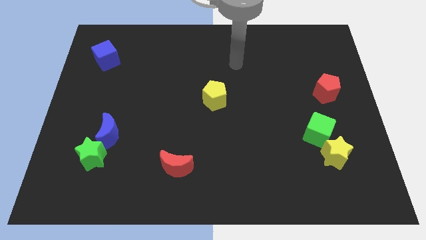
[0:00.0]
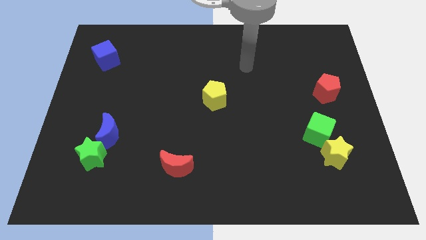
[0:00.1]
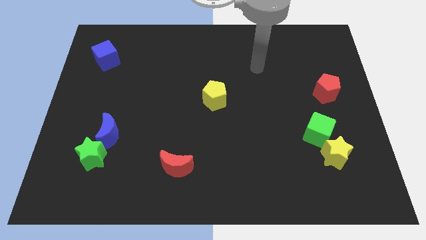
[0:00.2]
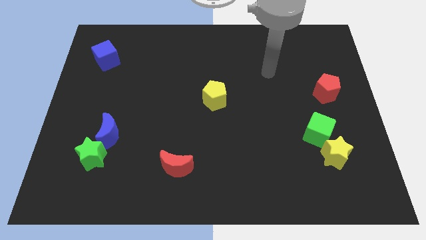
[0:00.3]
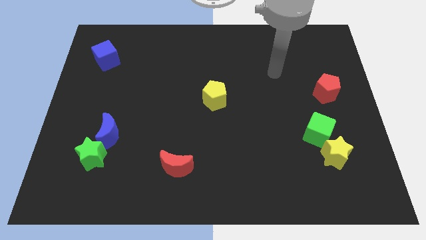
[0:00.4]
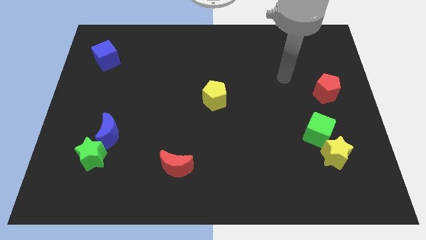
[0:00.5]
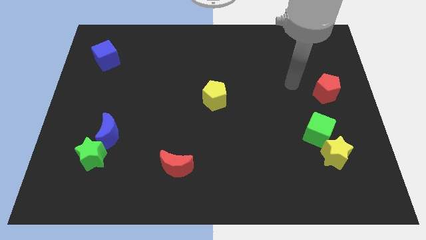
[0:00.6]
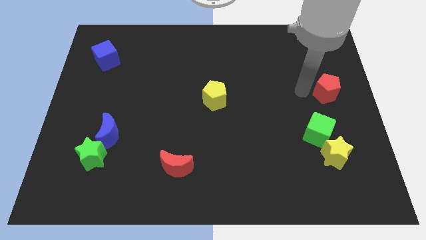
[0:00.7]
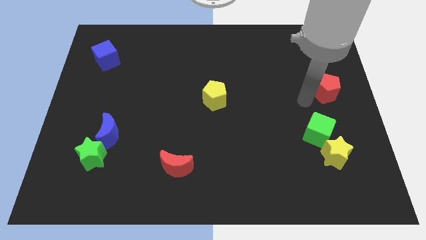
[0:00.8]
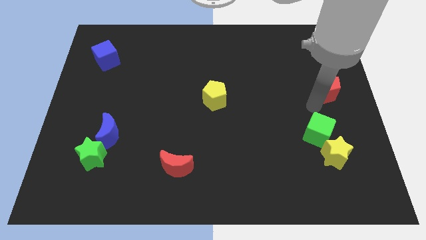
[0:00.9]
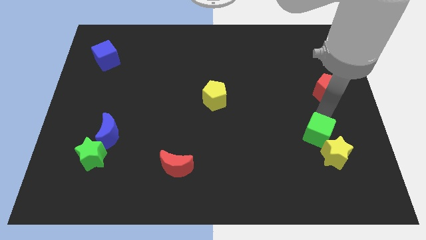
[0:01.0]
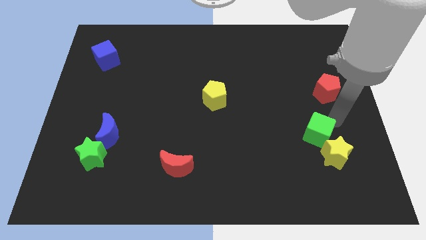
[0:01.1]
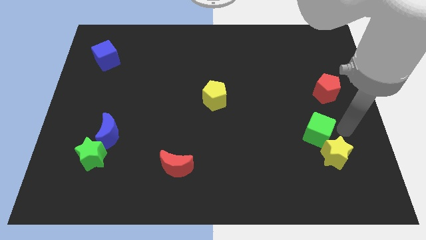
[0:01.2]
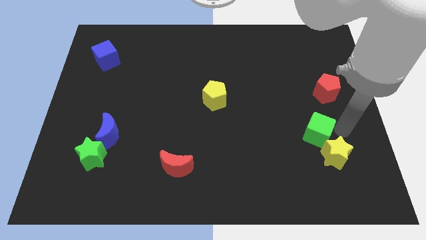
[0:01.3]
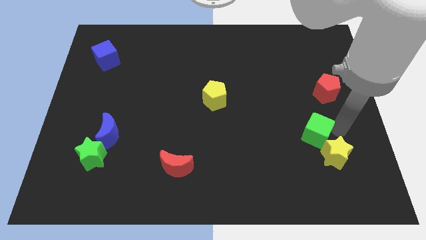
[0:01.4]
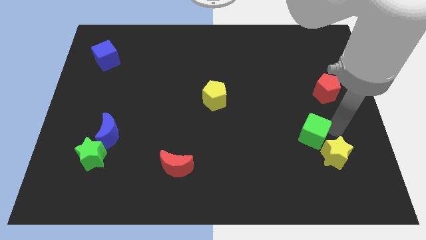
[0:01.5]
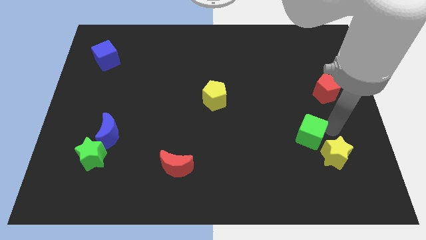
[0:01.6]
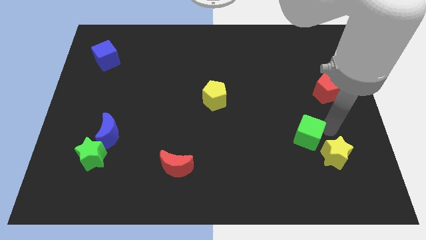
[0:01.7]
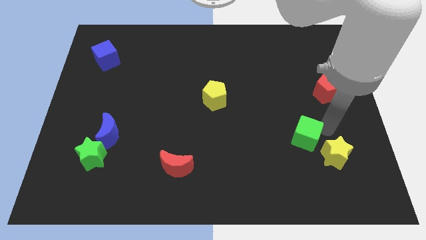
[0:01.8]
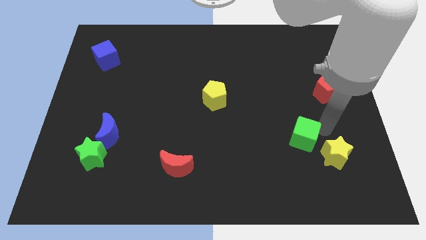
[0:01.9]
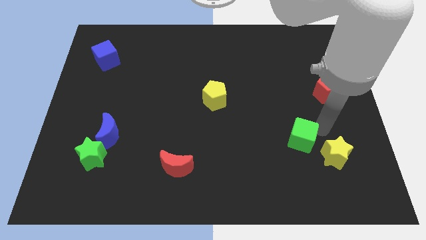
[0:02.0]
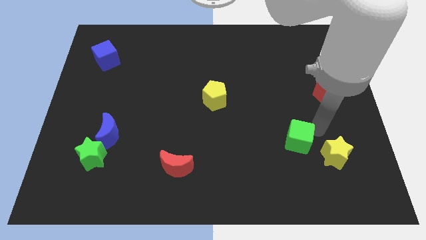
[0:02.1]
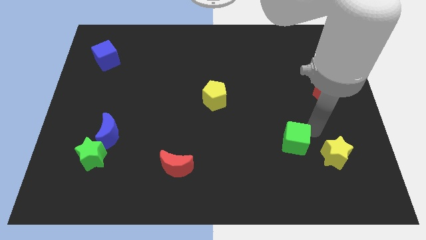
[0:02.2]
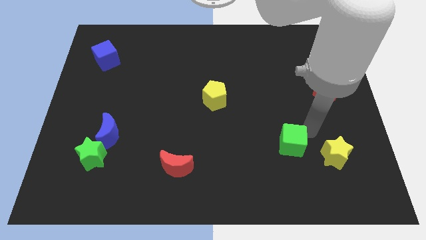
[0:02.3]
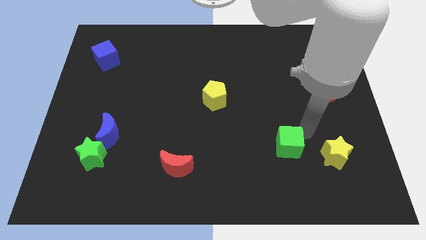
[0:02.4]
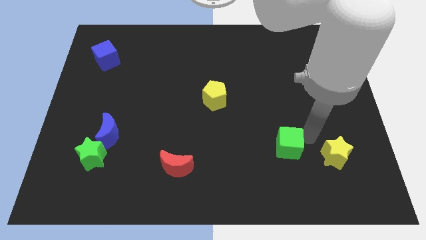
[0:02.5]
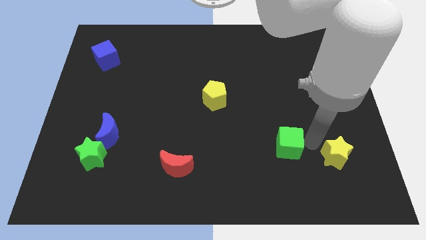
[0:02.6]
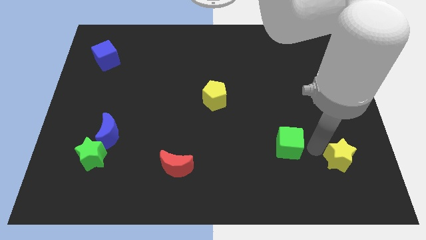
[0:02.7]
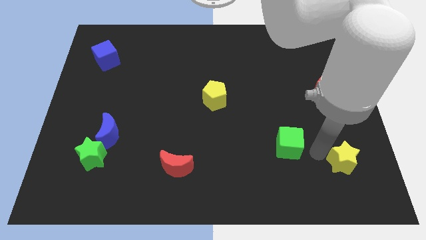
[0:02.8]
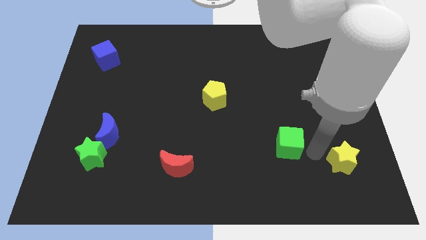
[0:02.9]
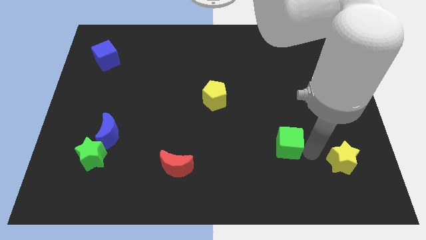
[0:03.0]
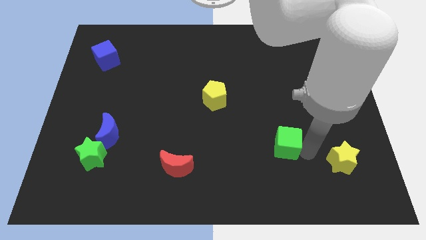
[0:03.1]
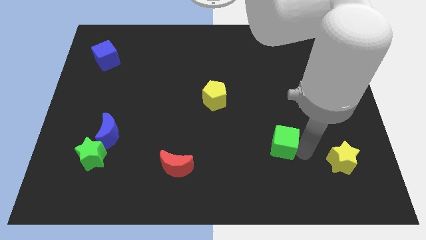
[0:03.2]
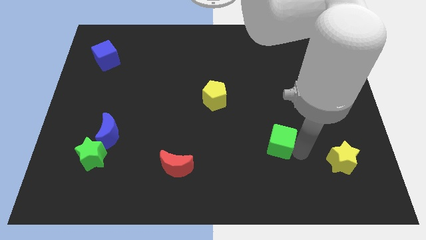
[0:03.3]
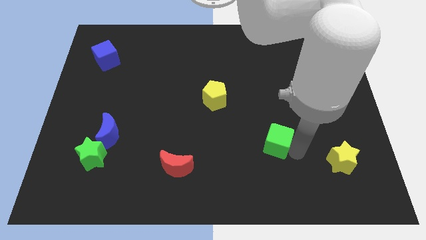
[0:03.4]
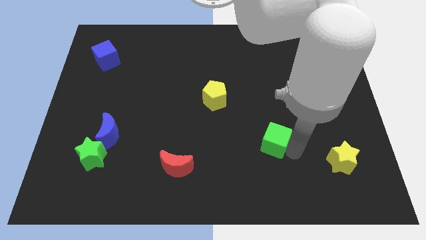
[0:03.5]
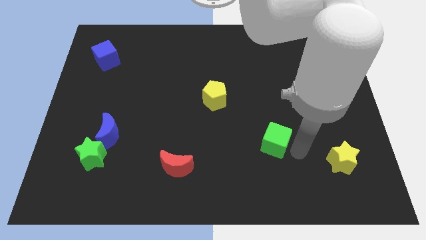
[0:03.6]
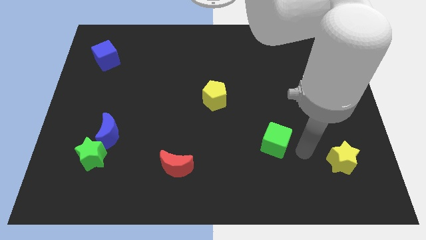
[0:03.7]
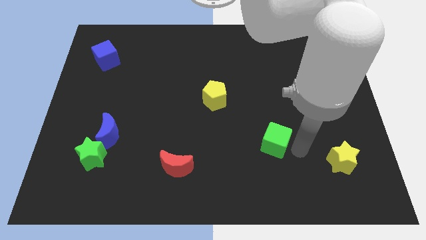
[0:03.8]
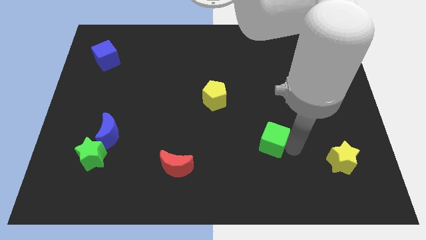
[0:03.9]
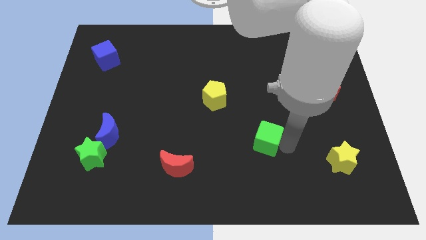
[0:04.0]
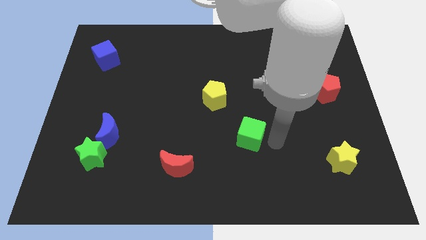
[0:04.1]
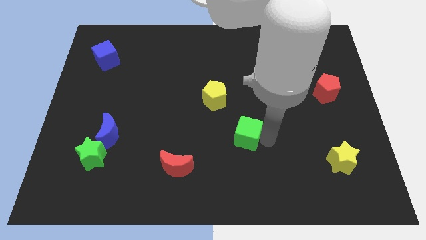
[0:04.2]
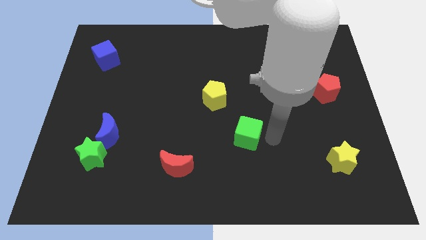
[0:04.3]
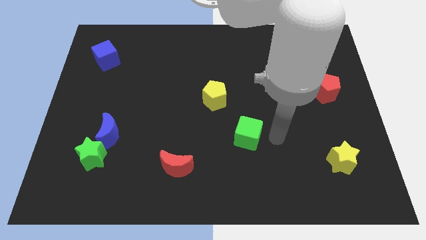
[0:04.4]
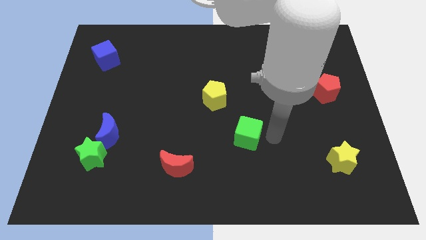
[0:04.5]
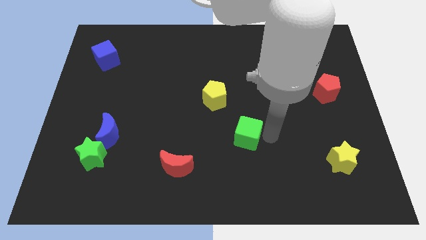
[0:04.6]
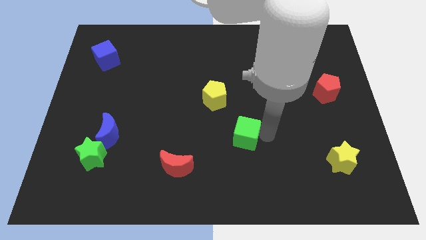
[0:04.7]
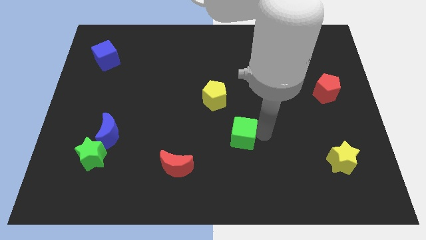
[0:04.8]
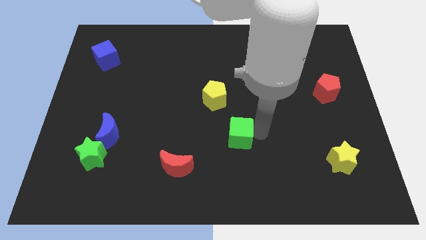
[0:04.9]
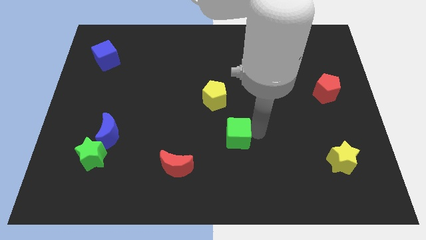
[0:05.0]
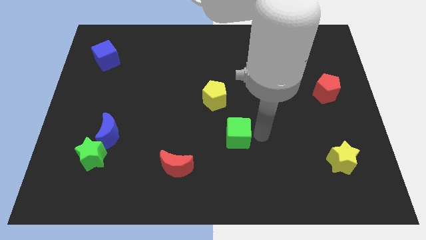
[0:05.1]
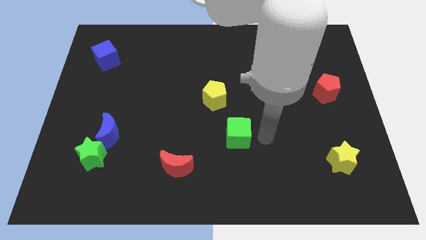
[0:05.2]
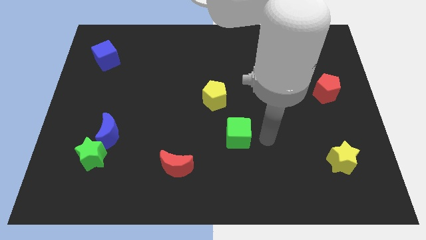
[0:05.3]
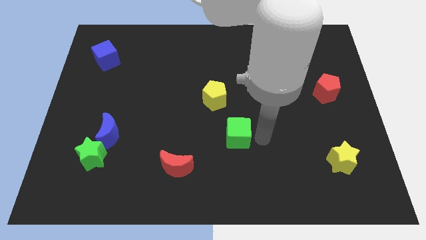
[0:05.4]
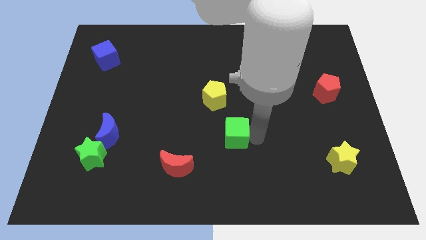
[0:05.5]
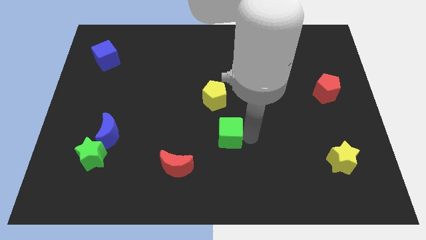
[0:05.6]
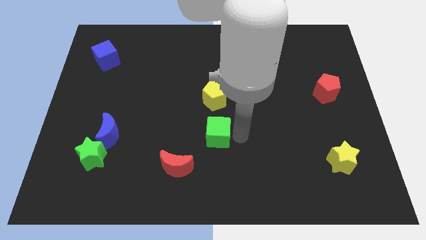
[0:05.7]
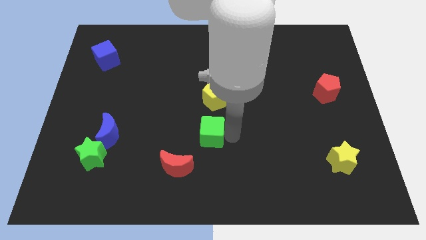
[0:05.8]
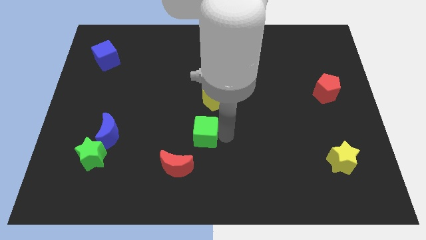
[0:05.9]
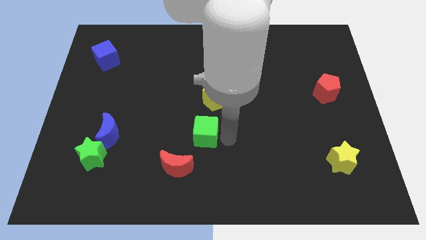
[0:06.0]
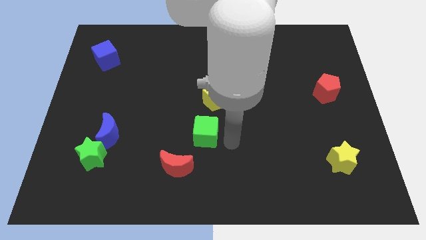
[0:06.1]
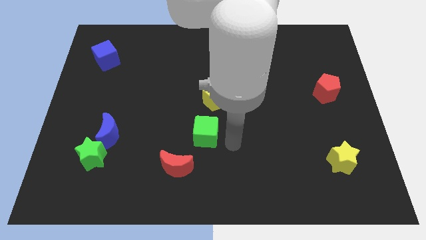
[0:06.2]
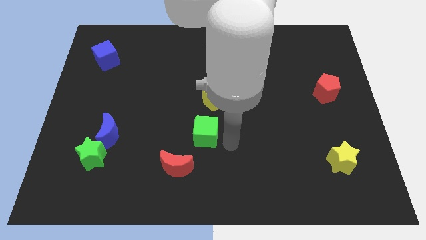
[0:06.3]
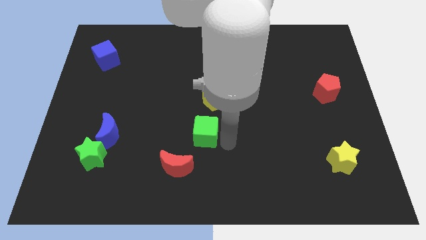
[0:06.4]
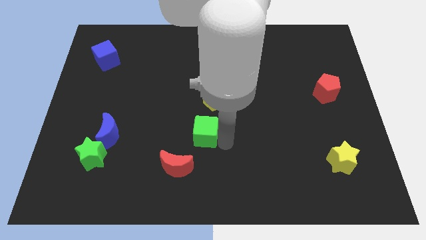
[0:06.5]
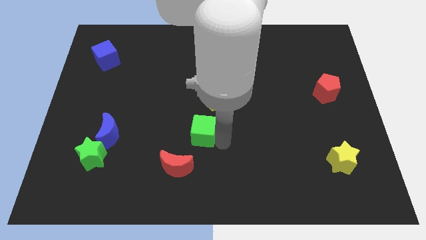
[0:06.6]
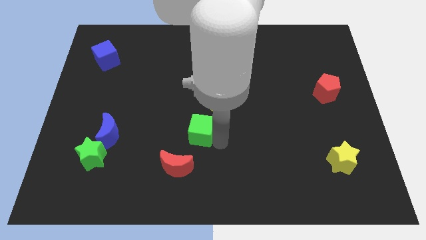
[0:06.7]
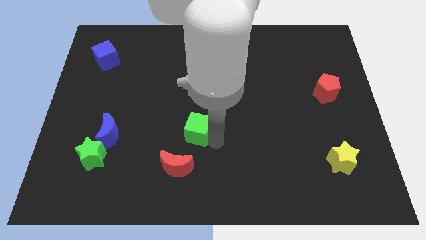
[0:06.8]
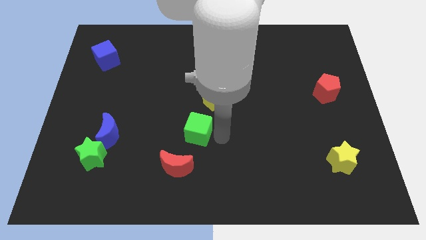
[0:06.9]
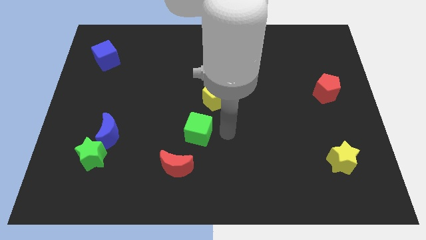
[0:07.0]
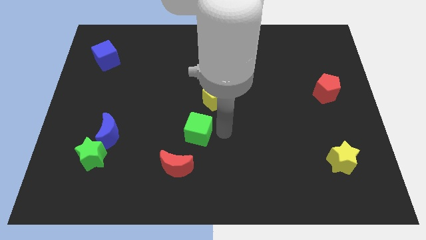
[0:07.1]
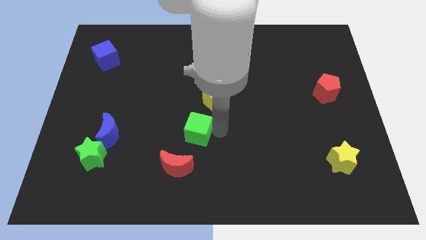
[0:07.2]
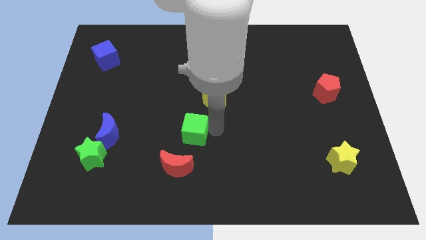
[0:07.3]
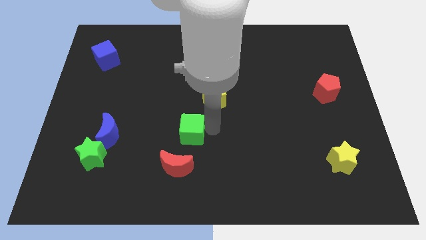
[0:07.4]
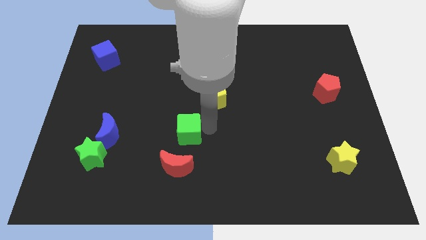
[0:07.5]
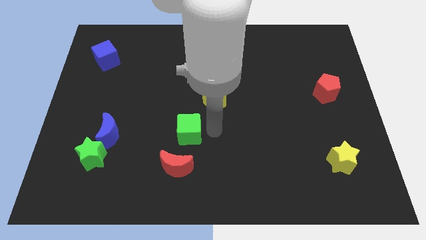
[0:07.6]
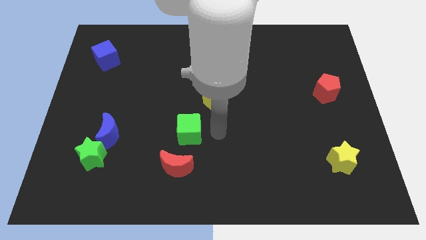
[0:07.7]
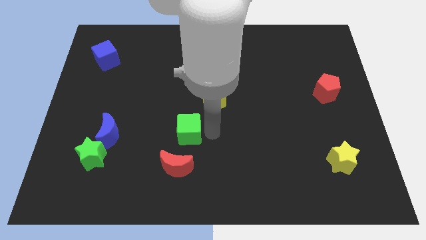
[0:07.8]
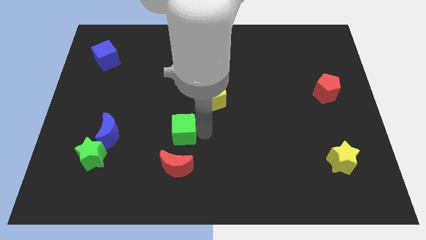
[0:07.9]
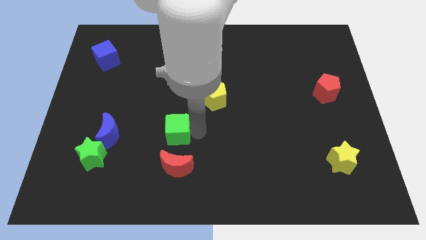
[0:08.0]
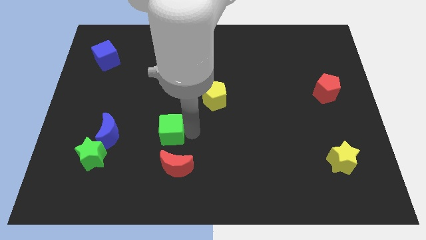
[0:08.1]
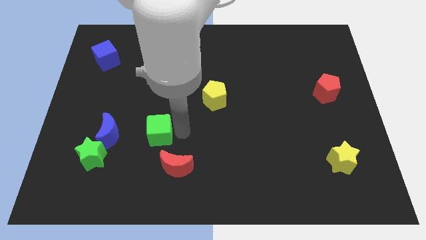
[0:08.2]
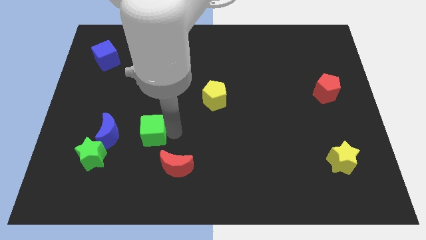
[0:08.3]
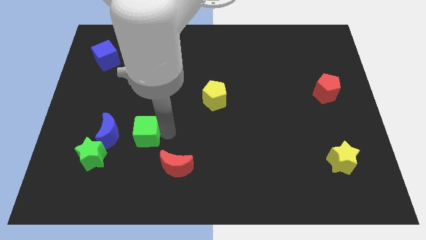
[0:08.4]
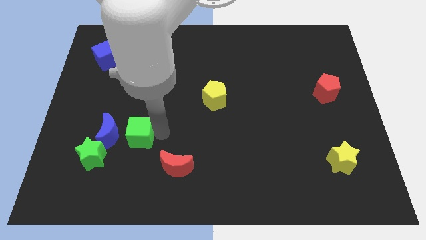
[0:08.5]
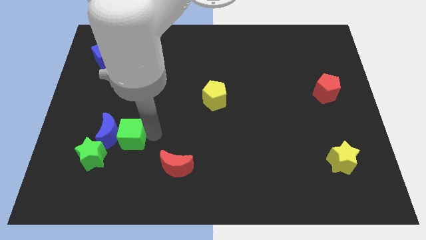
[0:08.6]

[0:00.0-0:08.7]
put the green cube towards the blue moon
